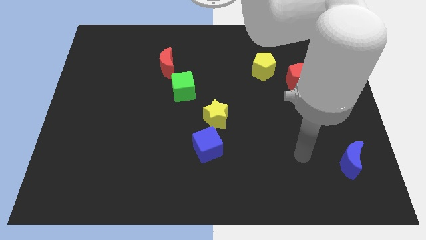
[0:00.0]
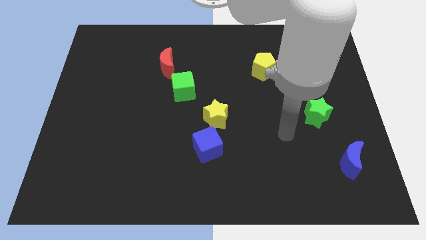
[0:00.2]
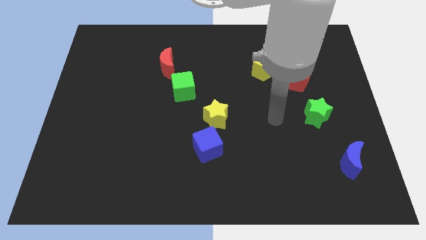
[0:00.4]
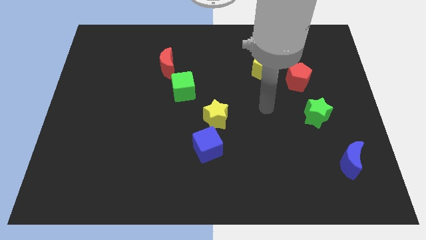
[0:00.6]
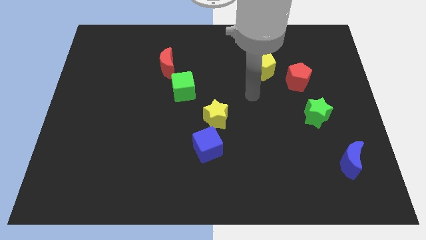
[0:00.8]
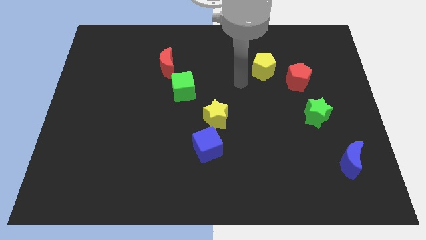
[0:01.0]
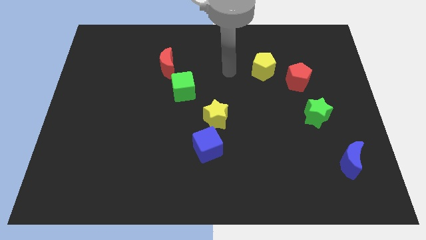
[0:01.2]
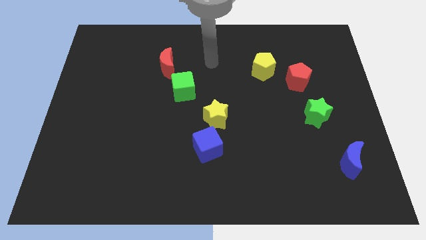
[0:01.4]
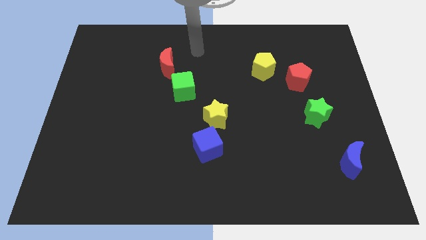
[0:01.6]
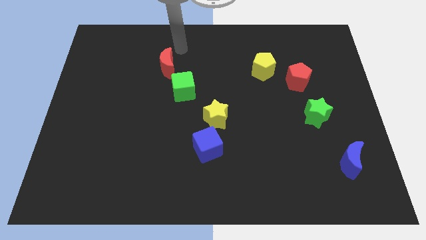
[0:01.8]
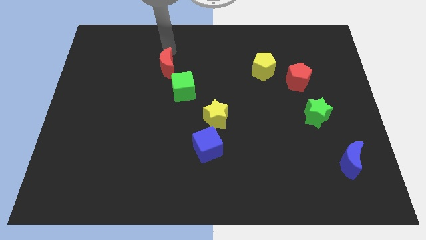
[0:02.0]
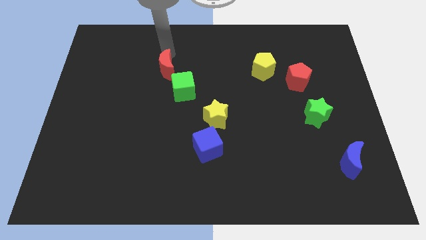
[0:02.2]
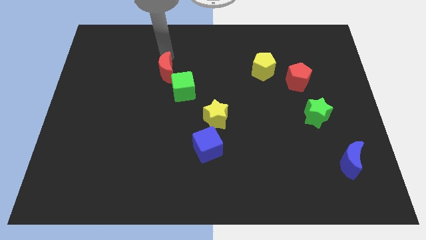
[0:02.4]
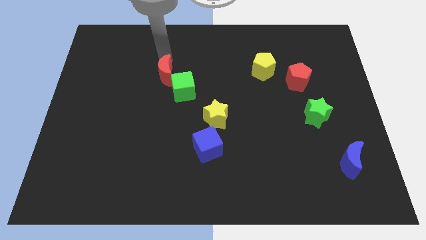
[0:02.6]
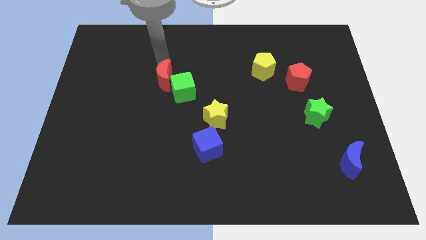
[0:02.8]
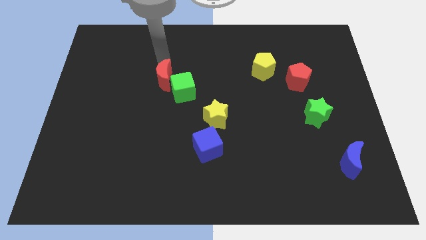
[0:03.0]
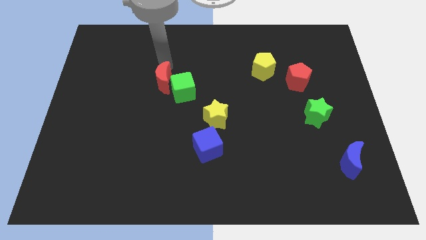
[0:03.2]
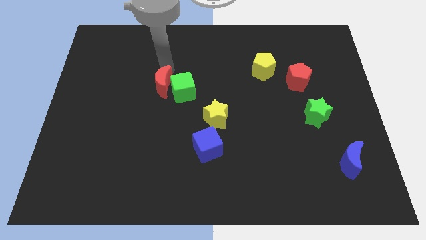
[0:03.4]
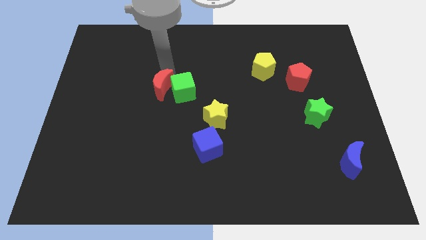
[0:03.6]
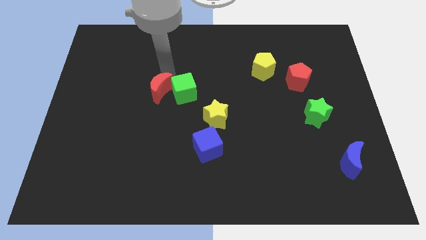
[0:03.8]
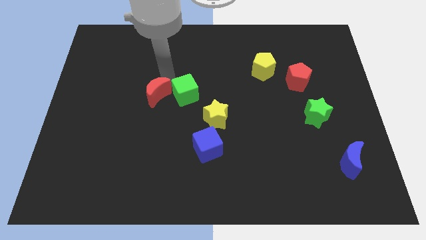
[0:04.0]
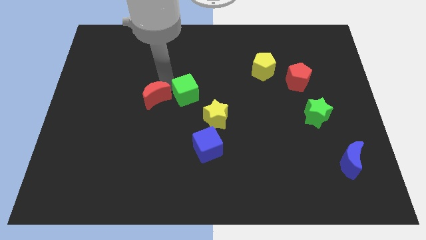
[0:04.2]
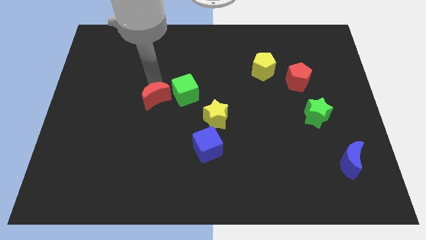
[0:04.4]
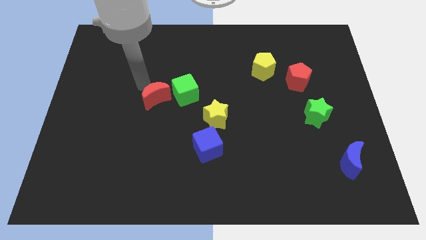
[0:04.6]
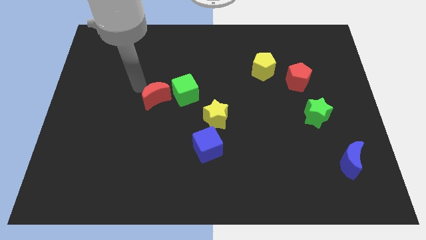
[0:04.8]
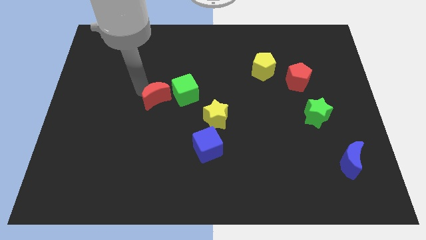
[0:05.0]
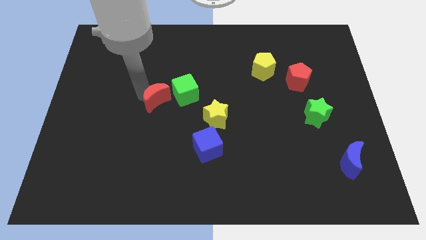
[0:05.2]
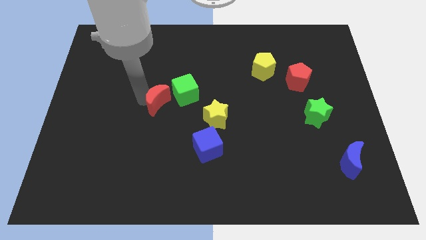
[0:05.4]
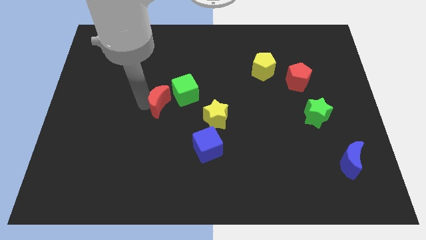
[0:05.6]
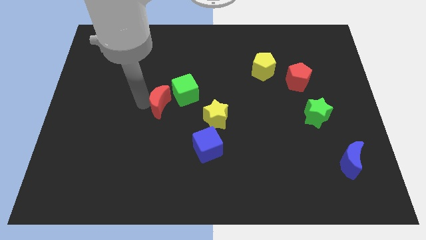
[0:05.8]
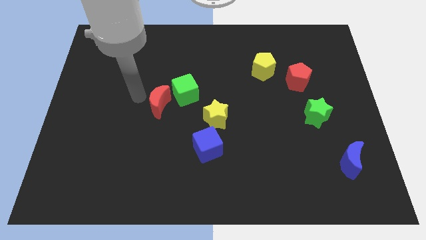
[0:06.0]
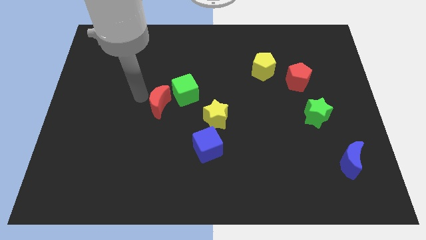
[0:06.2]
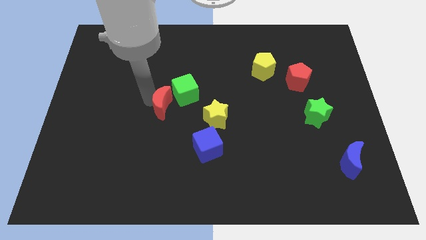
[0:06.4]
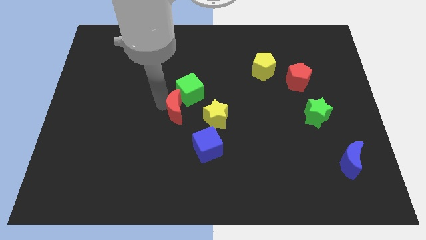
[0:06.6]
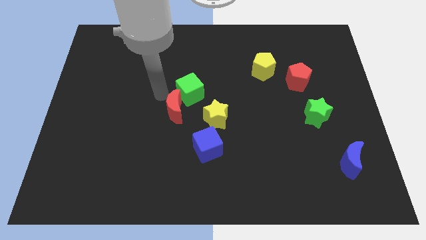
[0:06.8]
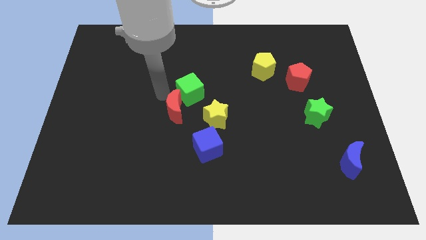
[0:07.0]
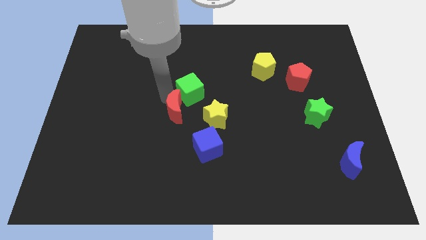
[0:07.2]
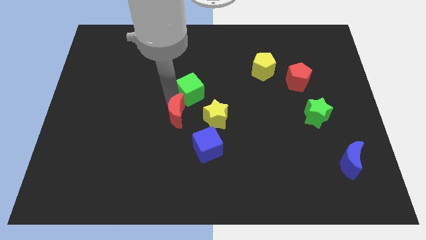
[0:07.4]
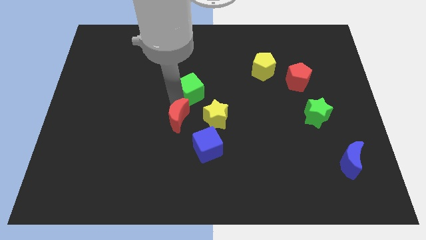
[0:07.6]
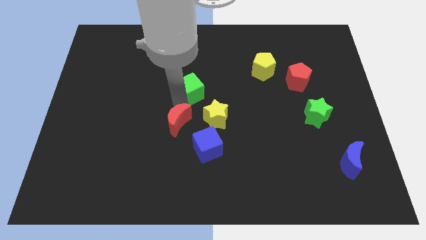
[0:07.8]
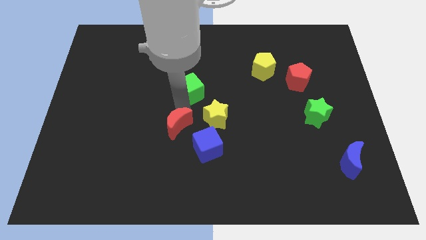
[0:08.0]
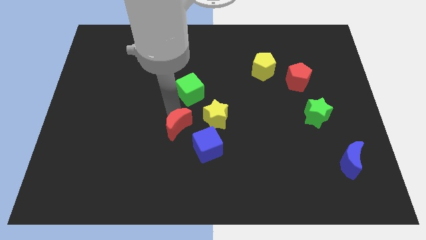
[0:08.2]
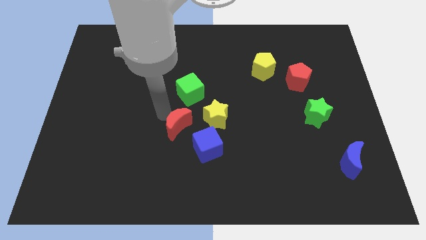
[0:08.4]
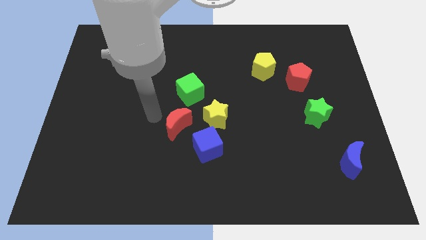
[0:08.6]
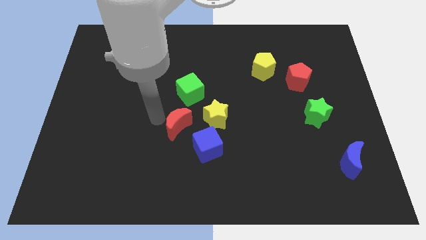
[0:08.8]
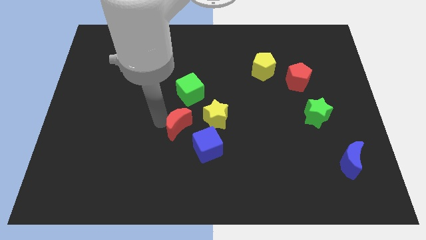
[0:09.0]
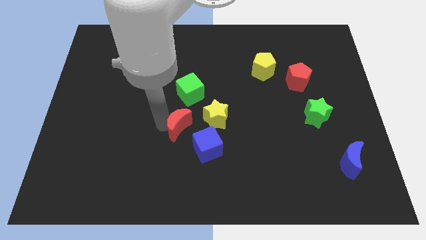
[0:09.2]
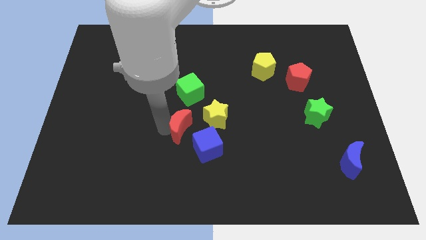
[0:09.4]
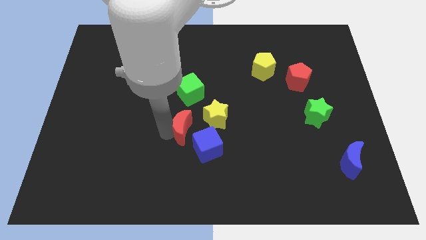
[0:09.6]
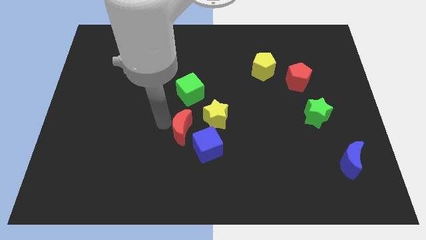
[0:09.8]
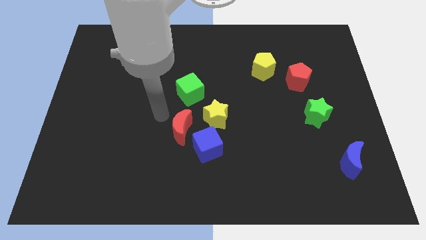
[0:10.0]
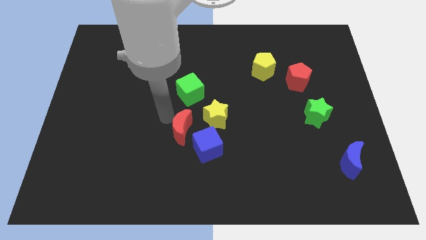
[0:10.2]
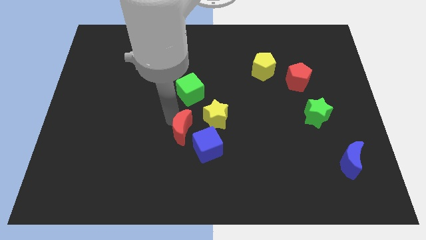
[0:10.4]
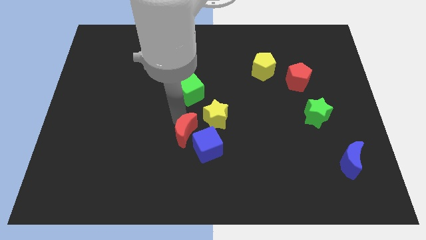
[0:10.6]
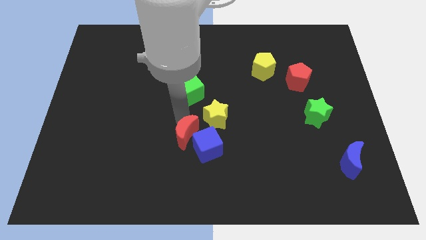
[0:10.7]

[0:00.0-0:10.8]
push the red moon next to the blue cube

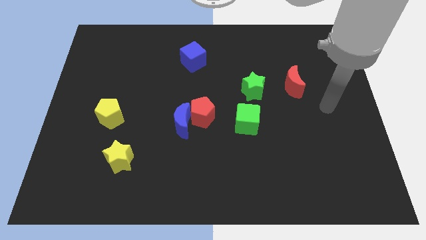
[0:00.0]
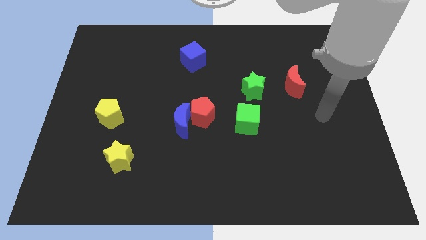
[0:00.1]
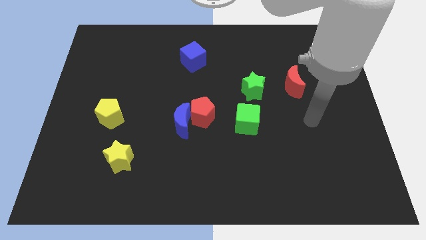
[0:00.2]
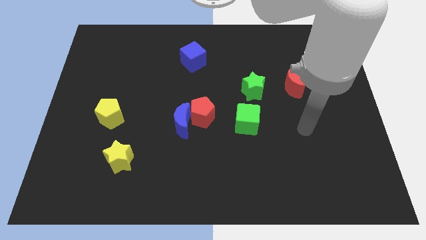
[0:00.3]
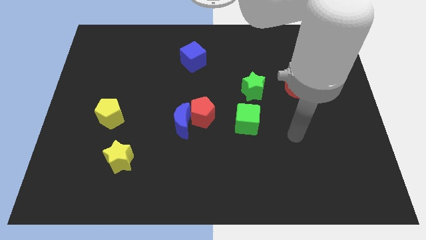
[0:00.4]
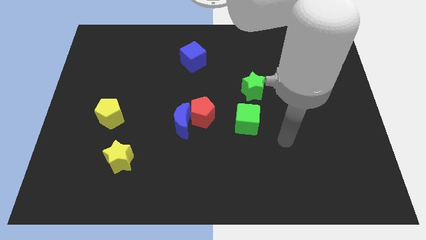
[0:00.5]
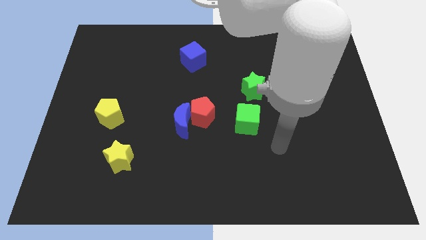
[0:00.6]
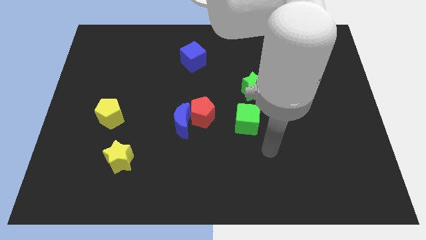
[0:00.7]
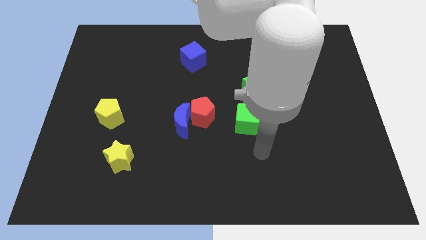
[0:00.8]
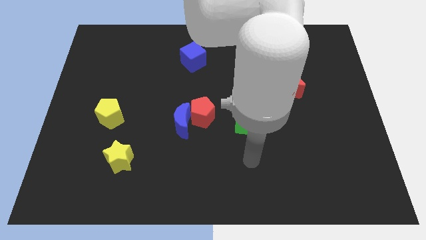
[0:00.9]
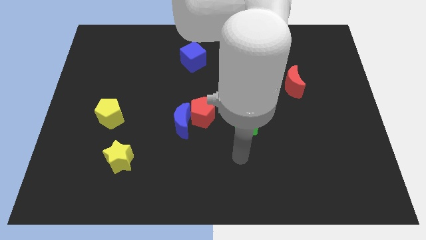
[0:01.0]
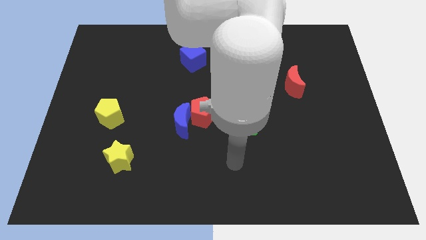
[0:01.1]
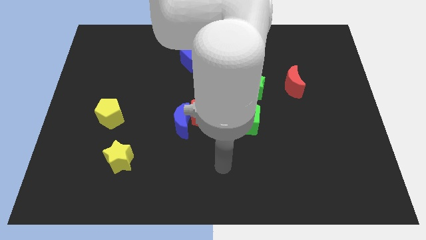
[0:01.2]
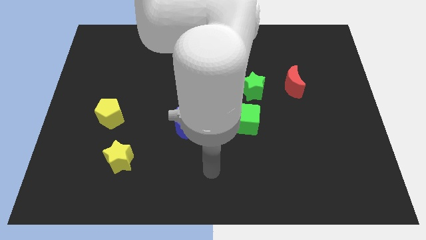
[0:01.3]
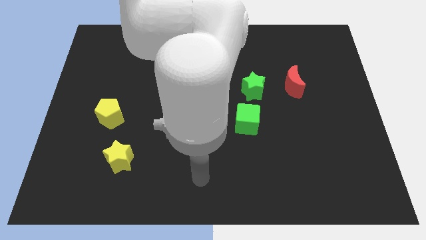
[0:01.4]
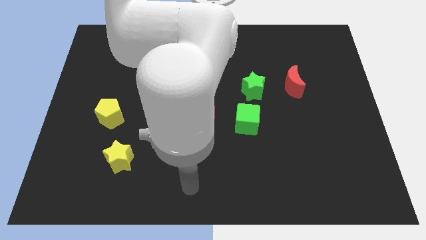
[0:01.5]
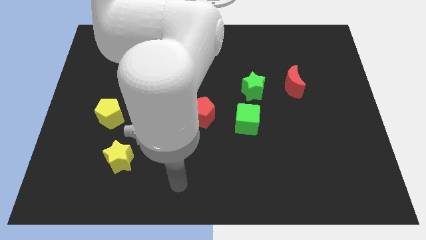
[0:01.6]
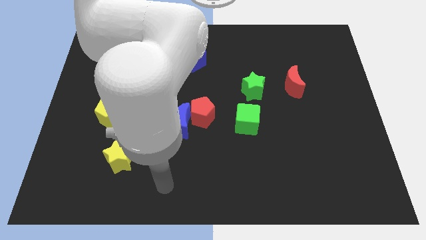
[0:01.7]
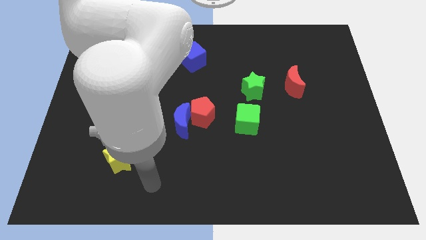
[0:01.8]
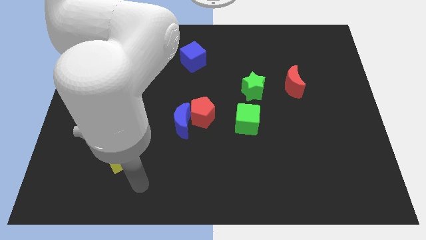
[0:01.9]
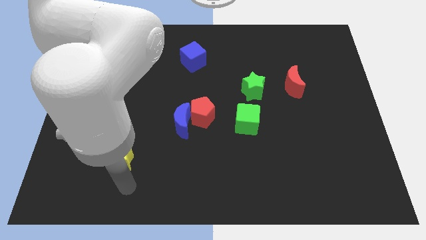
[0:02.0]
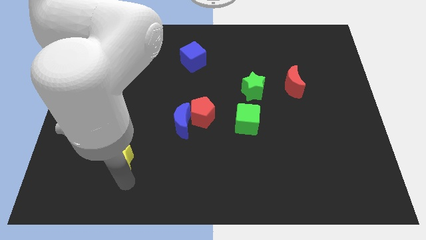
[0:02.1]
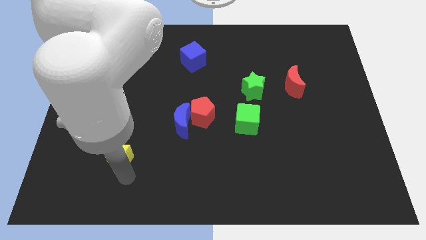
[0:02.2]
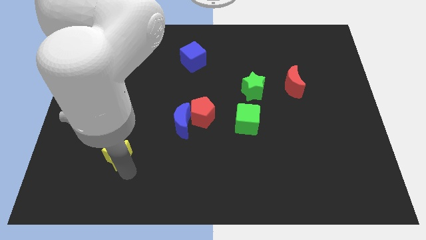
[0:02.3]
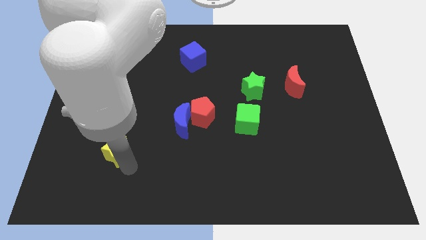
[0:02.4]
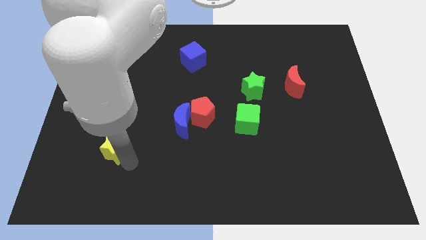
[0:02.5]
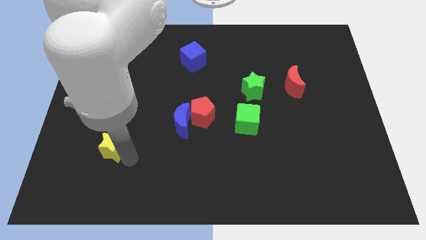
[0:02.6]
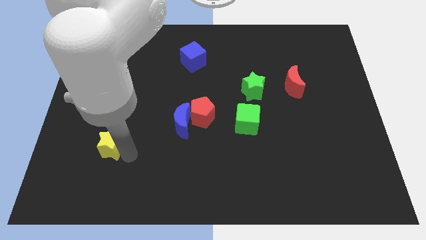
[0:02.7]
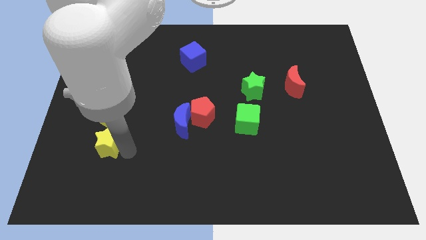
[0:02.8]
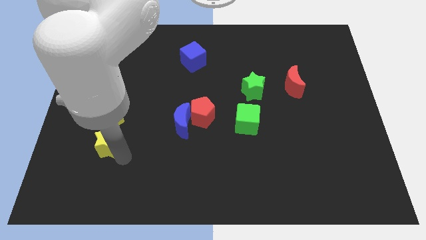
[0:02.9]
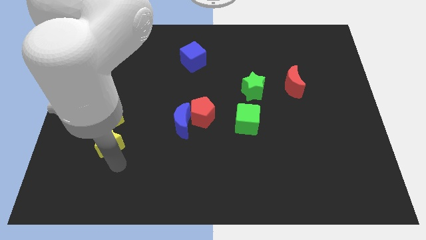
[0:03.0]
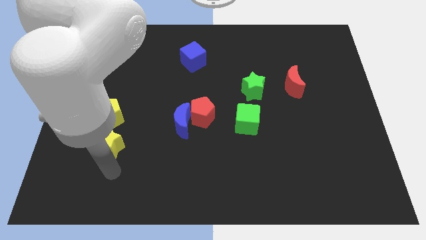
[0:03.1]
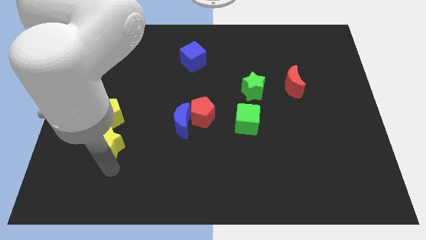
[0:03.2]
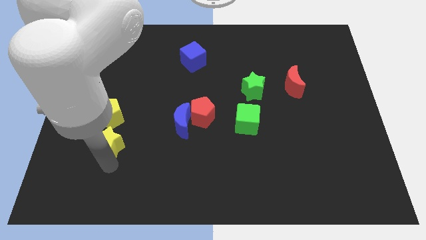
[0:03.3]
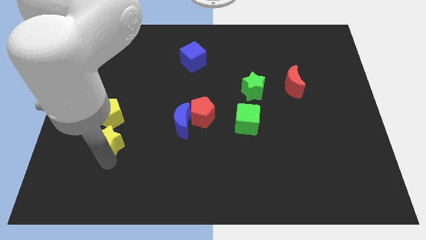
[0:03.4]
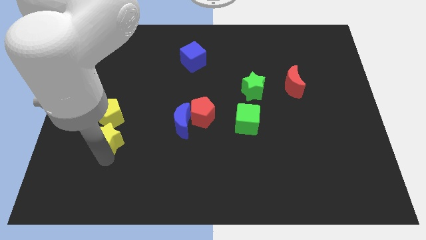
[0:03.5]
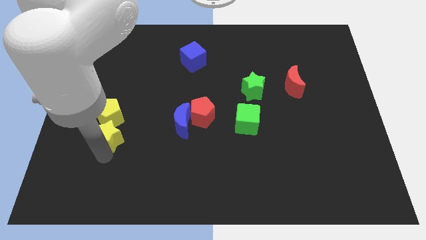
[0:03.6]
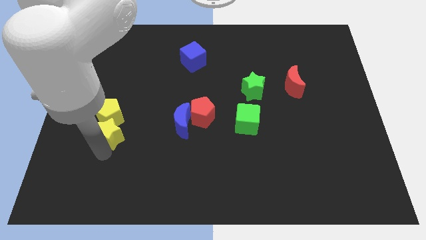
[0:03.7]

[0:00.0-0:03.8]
slide the yellow star towards the yellow pentagon
